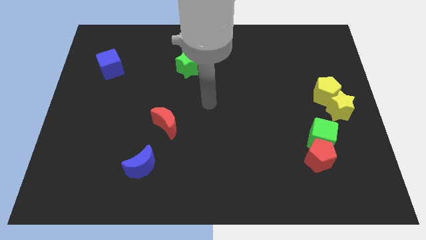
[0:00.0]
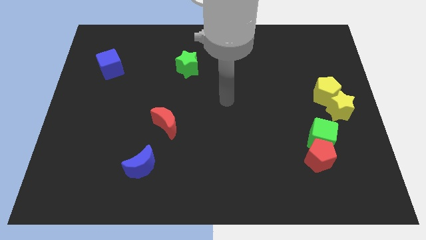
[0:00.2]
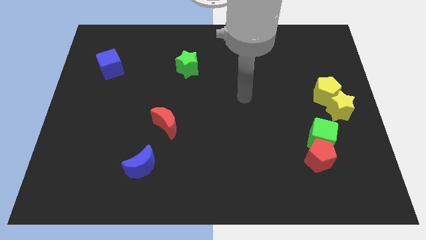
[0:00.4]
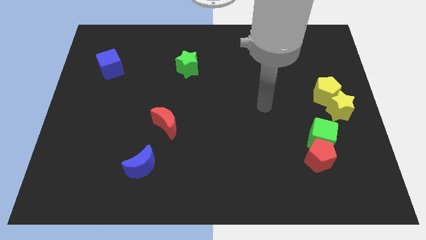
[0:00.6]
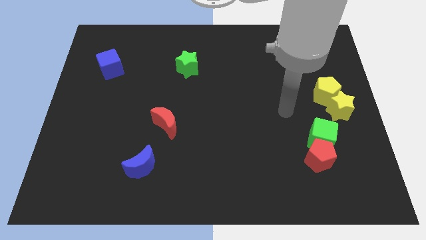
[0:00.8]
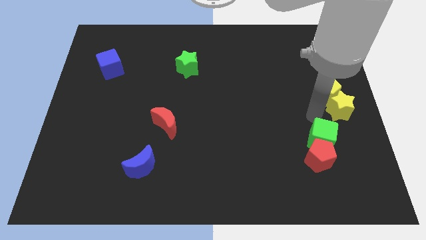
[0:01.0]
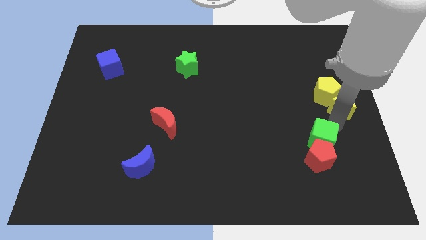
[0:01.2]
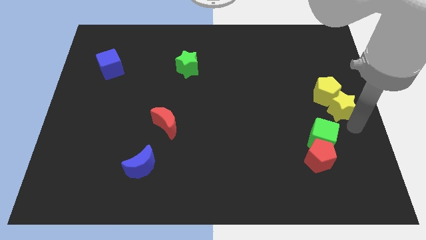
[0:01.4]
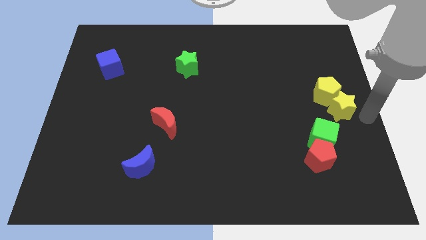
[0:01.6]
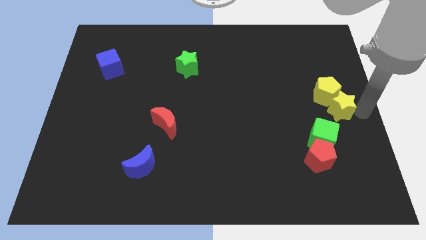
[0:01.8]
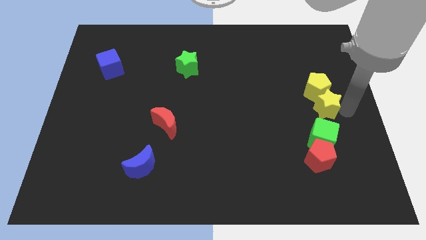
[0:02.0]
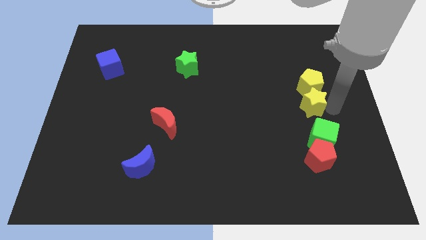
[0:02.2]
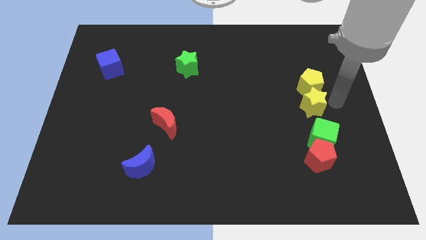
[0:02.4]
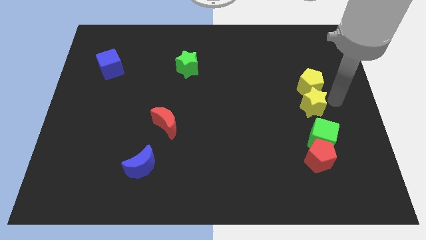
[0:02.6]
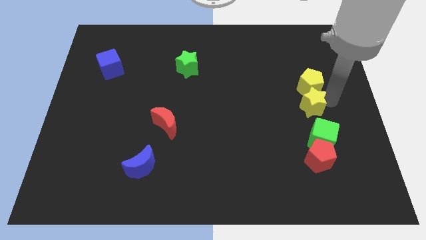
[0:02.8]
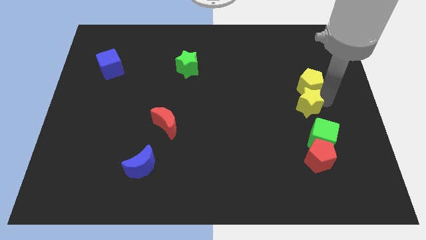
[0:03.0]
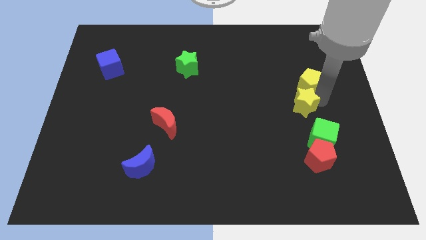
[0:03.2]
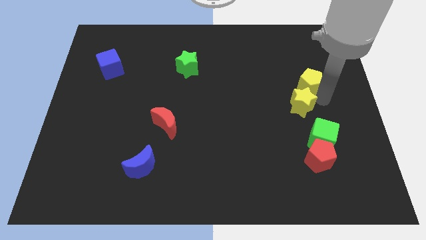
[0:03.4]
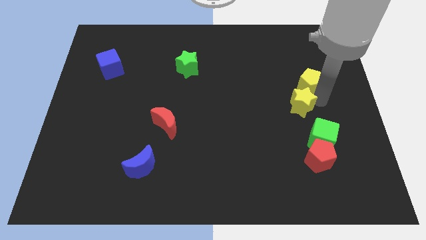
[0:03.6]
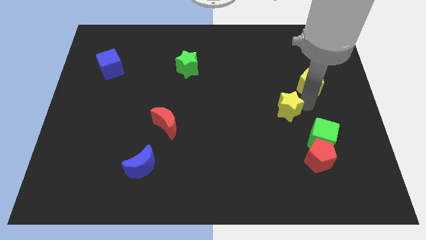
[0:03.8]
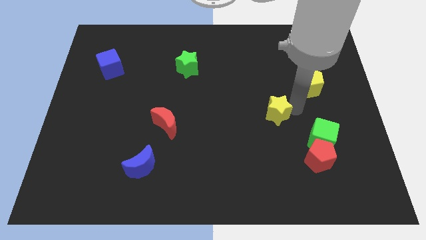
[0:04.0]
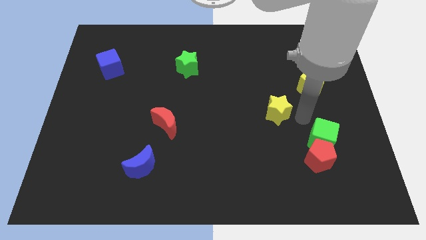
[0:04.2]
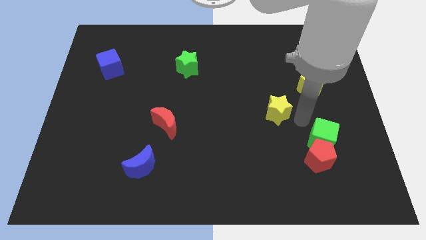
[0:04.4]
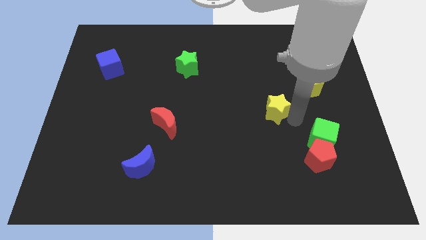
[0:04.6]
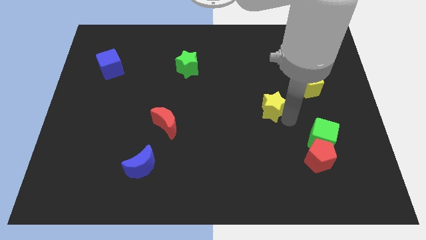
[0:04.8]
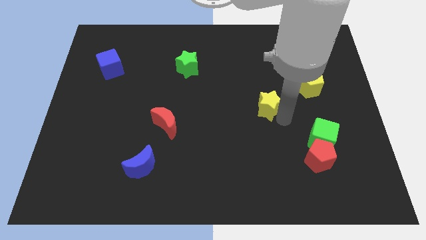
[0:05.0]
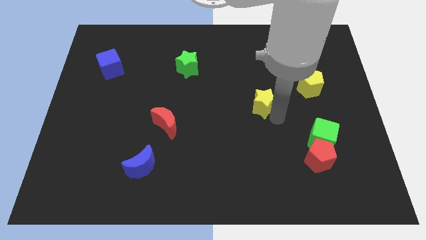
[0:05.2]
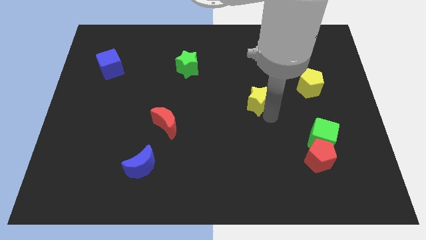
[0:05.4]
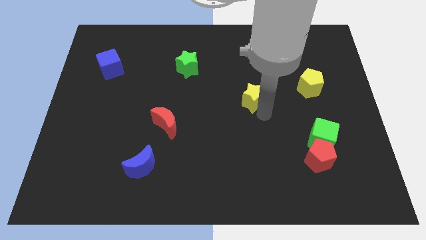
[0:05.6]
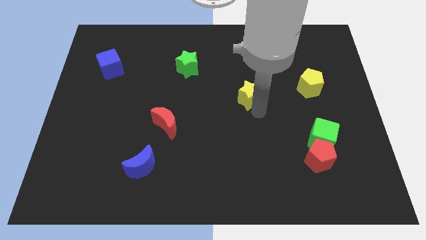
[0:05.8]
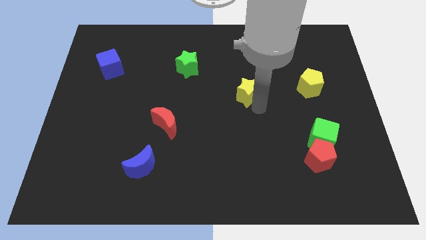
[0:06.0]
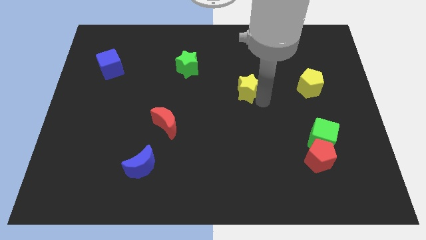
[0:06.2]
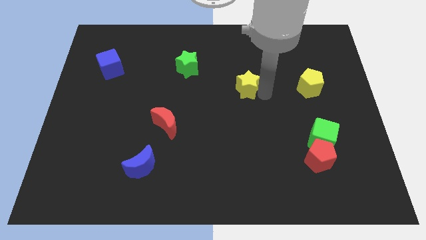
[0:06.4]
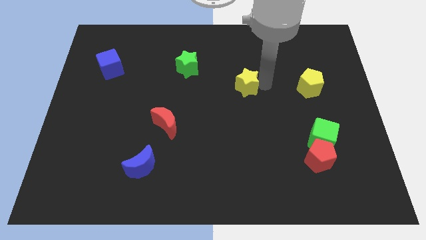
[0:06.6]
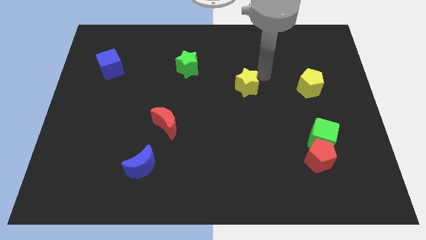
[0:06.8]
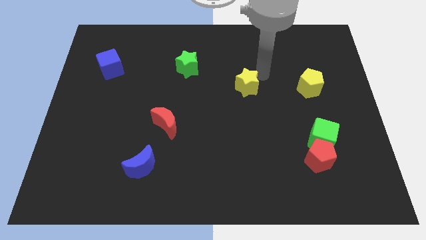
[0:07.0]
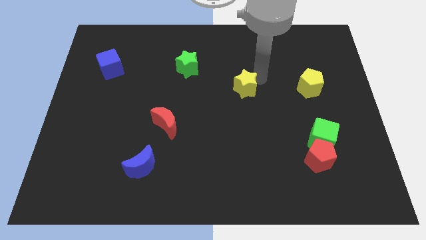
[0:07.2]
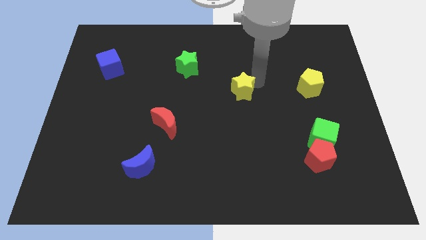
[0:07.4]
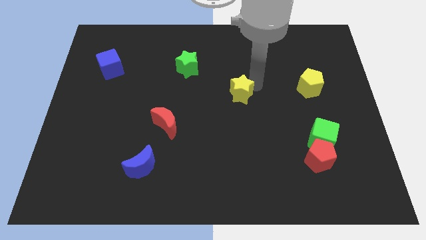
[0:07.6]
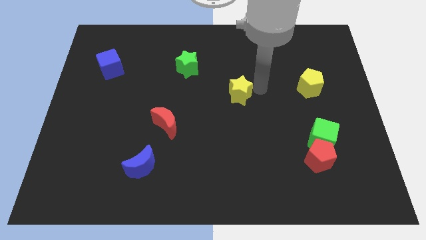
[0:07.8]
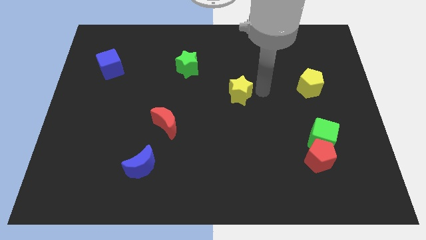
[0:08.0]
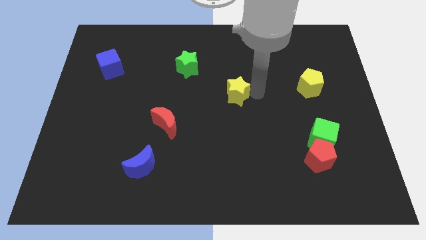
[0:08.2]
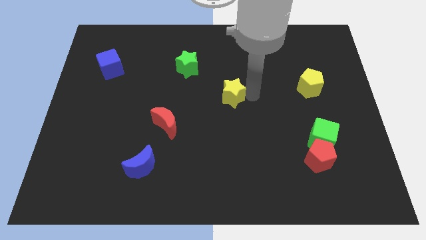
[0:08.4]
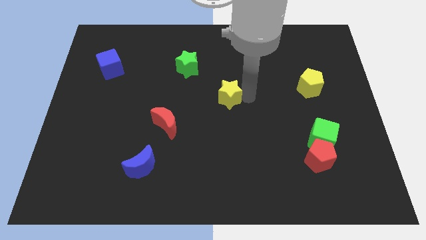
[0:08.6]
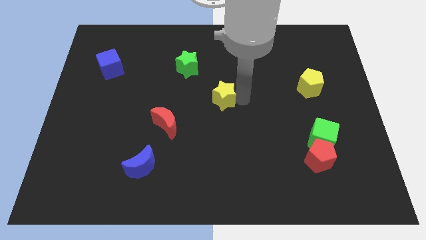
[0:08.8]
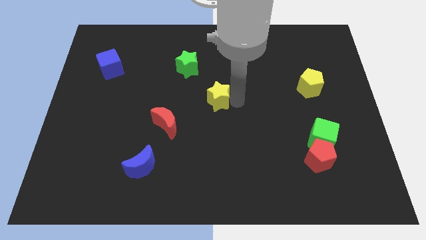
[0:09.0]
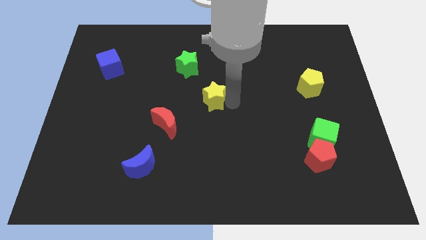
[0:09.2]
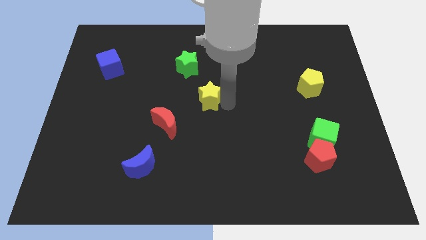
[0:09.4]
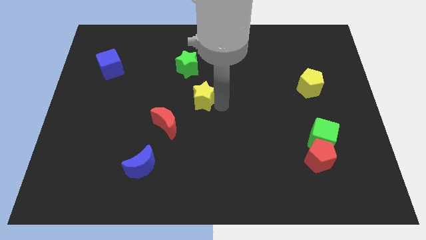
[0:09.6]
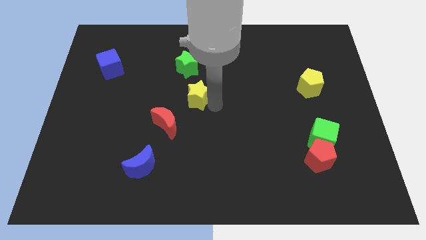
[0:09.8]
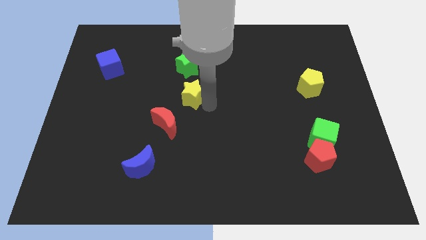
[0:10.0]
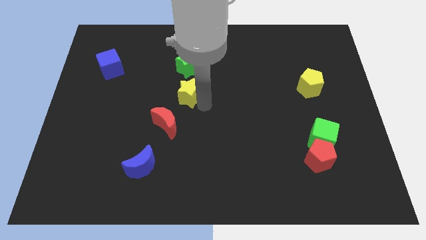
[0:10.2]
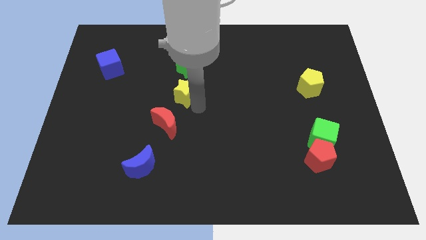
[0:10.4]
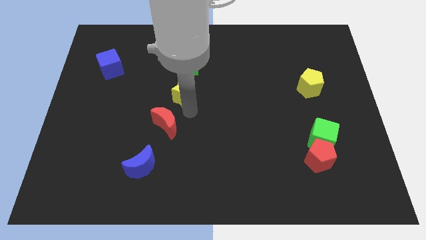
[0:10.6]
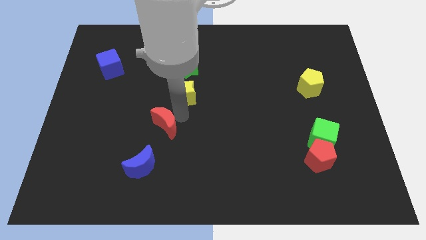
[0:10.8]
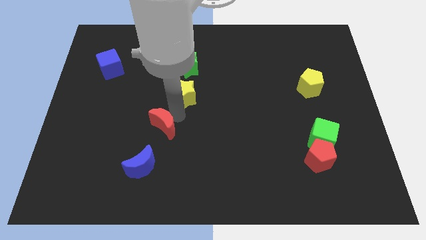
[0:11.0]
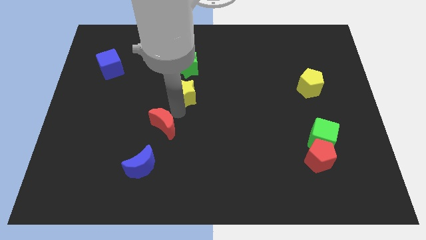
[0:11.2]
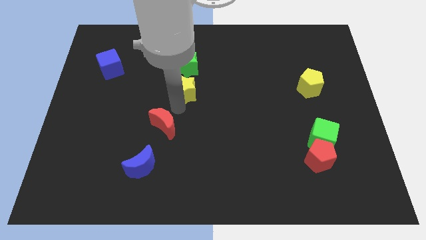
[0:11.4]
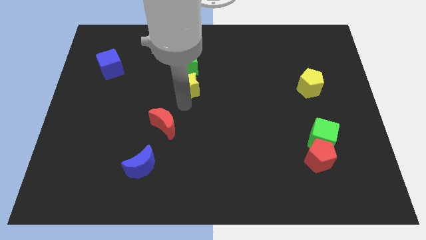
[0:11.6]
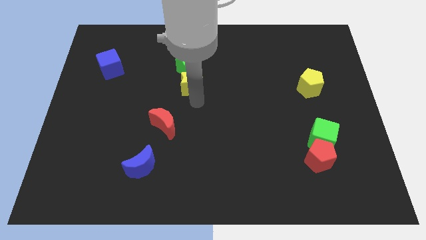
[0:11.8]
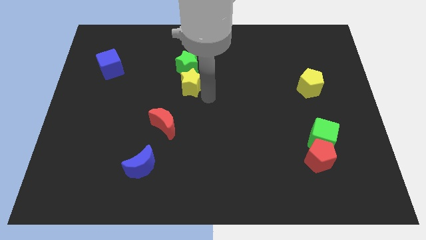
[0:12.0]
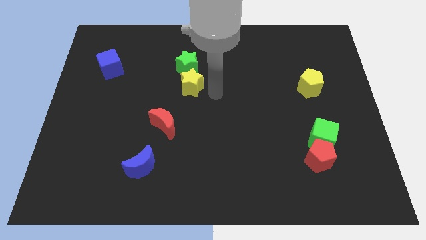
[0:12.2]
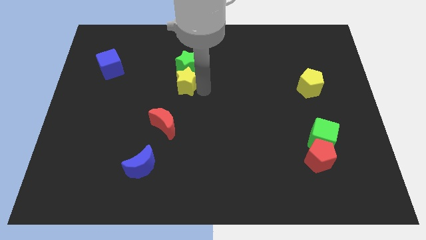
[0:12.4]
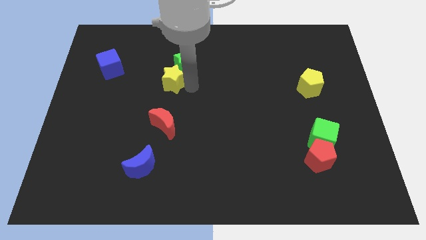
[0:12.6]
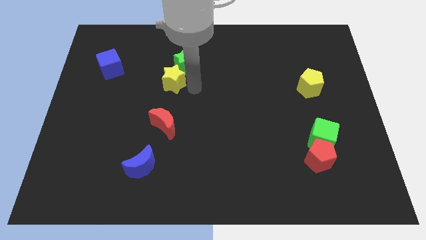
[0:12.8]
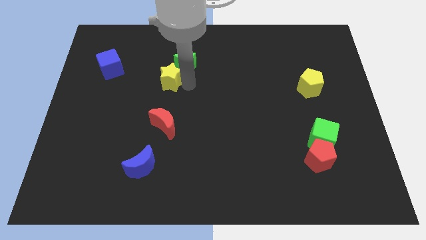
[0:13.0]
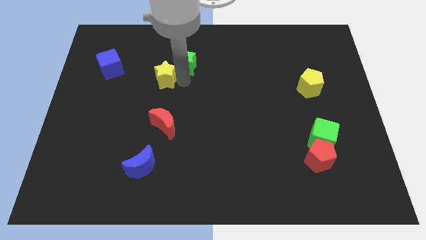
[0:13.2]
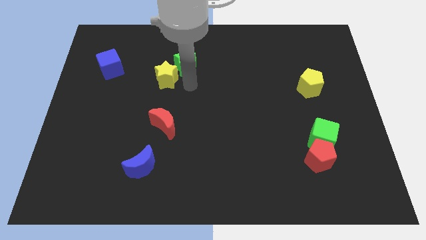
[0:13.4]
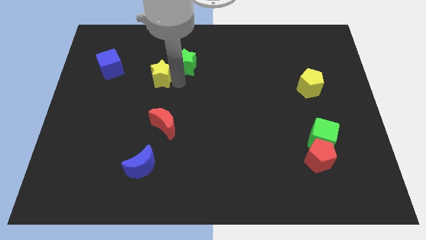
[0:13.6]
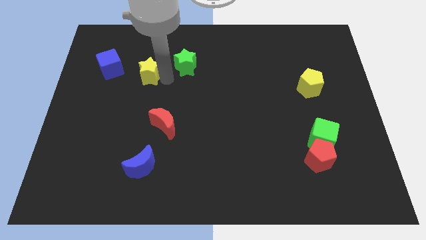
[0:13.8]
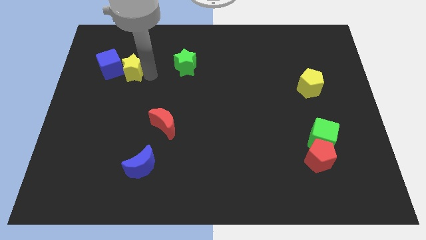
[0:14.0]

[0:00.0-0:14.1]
put the yellow star next to the blue cube
